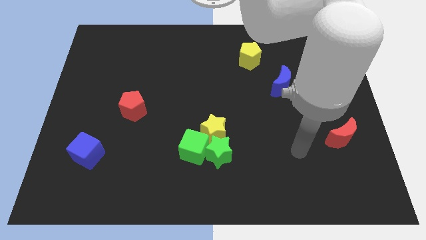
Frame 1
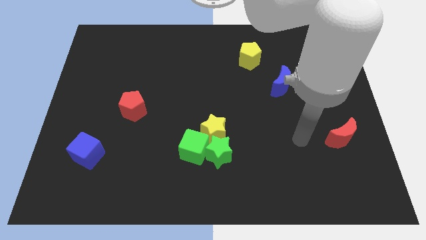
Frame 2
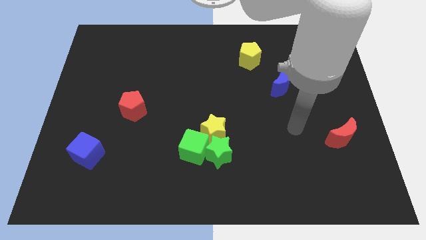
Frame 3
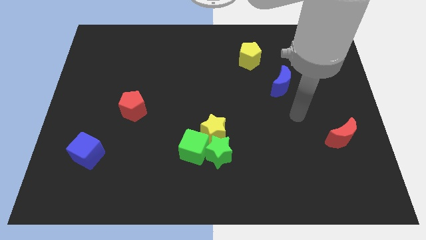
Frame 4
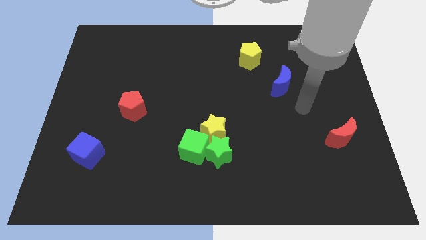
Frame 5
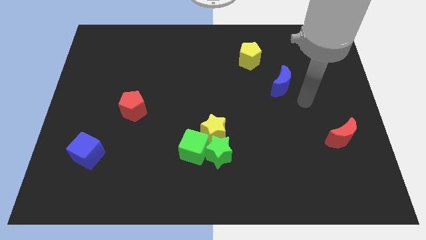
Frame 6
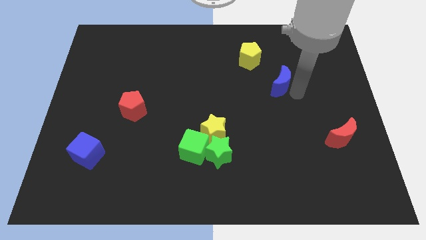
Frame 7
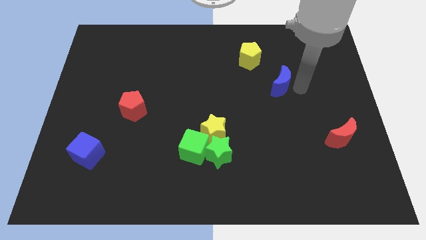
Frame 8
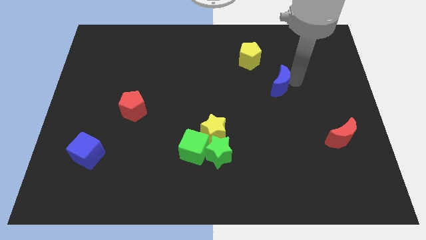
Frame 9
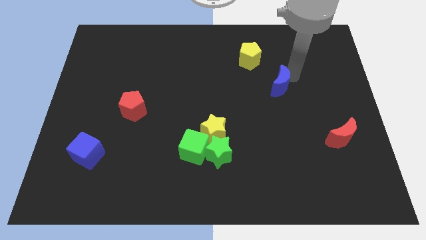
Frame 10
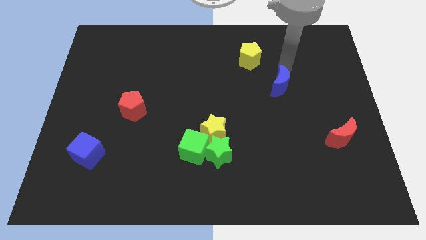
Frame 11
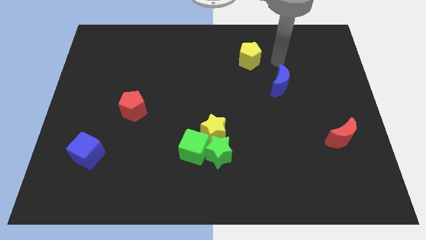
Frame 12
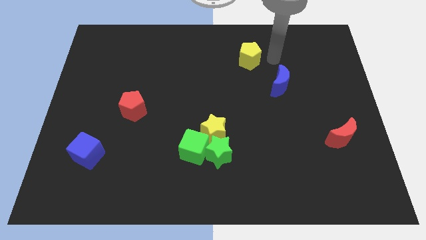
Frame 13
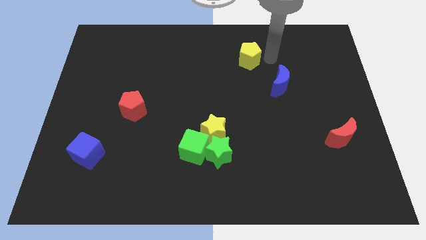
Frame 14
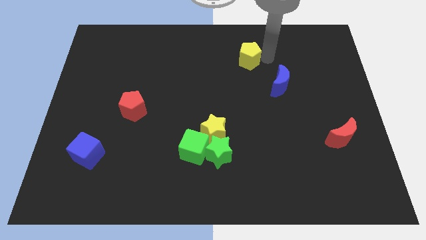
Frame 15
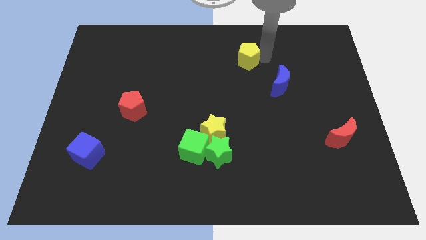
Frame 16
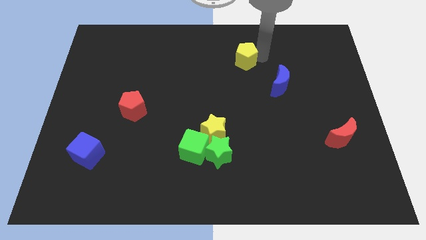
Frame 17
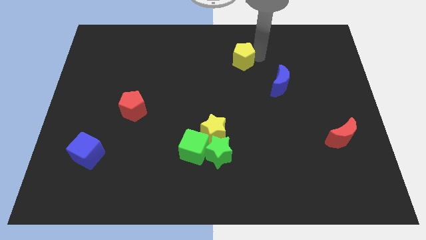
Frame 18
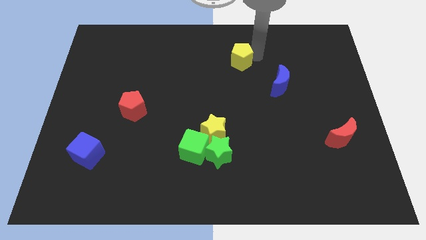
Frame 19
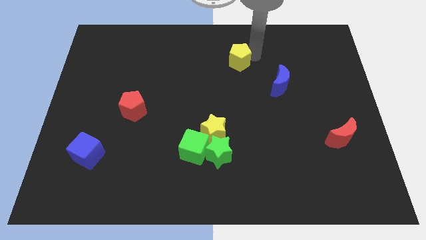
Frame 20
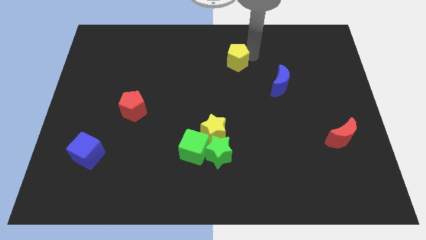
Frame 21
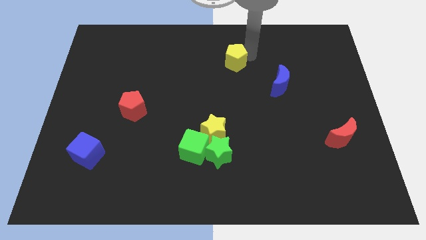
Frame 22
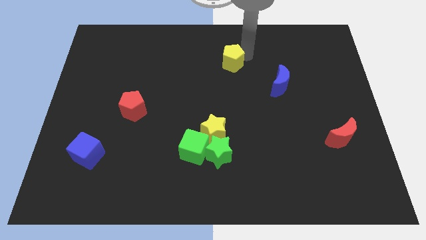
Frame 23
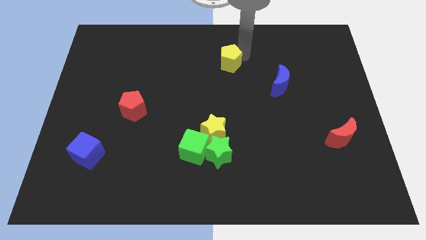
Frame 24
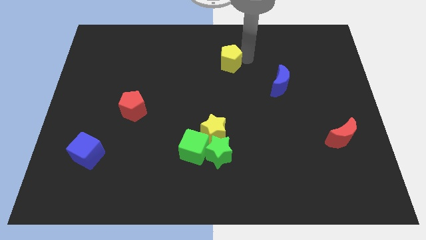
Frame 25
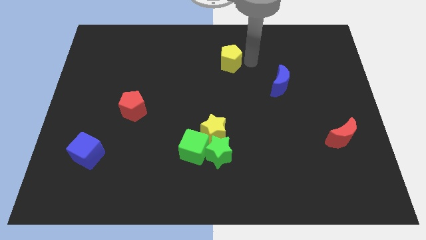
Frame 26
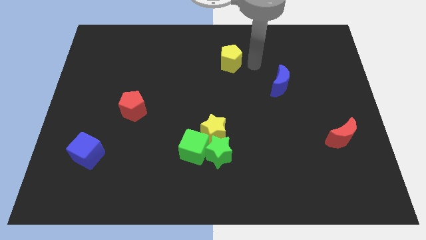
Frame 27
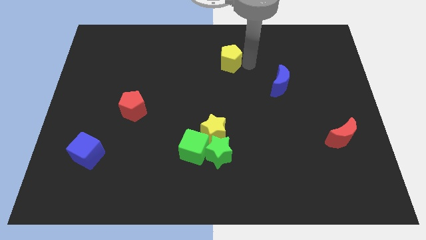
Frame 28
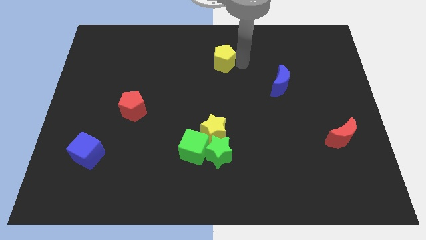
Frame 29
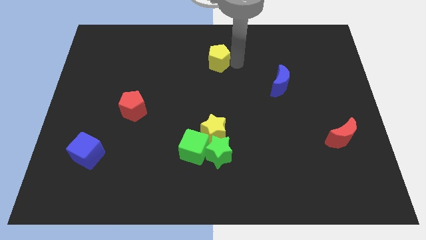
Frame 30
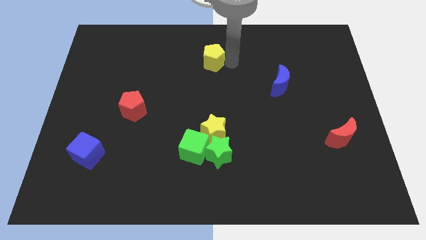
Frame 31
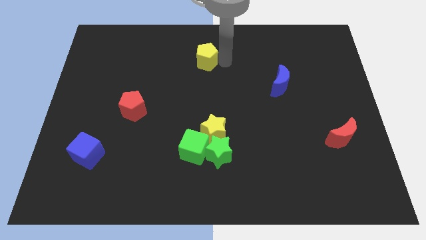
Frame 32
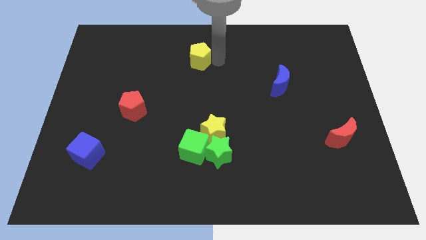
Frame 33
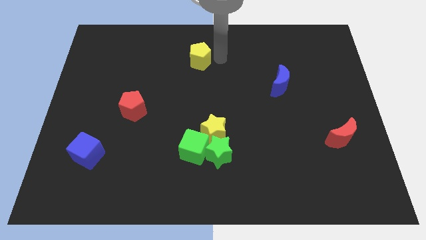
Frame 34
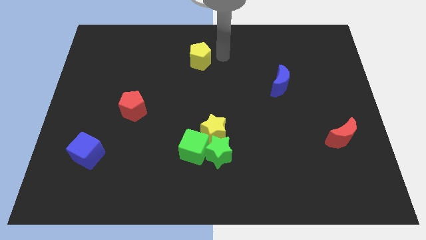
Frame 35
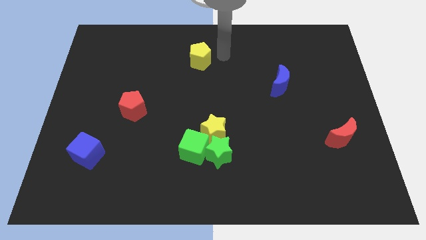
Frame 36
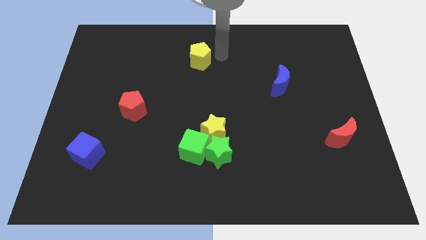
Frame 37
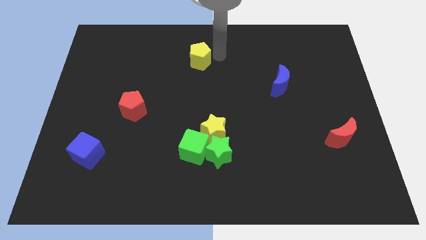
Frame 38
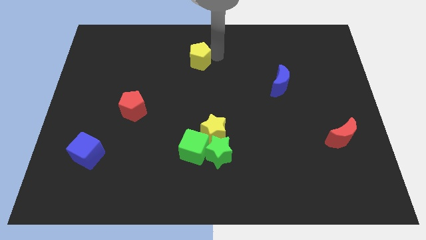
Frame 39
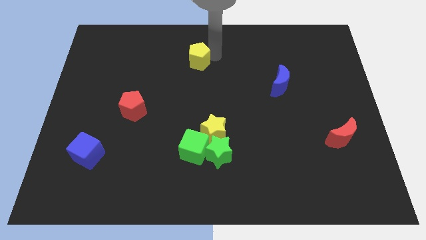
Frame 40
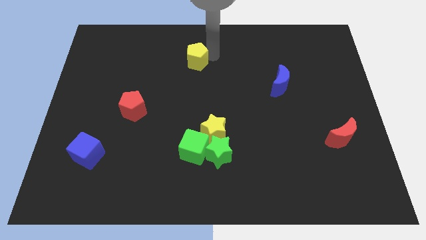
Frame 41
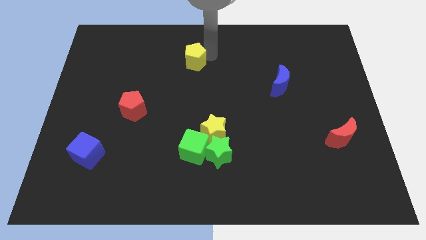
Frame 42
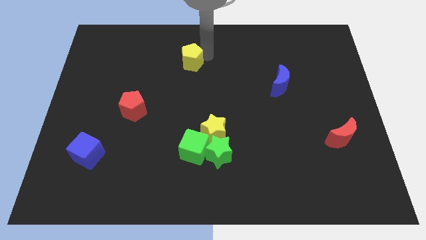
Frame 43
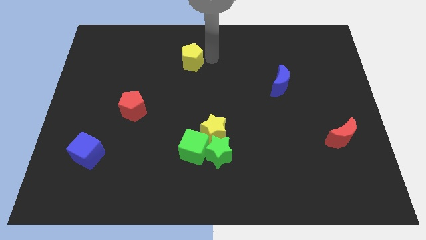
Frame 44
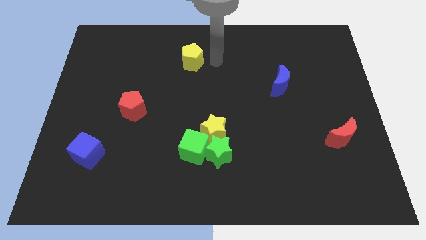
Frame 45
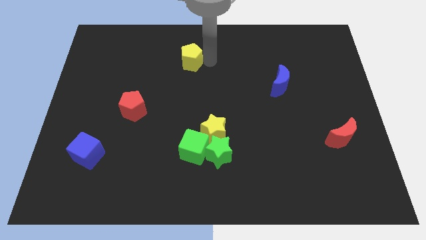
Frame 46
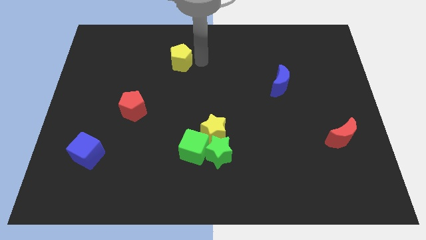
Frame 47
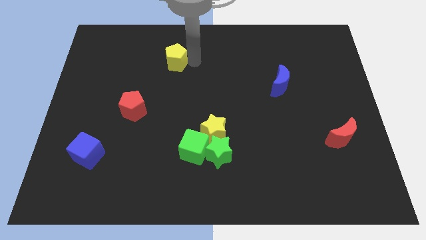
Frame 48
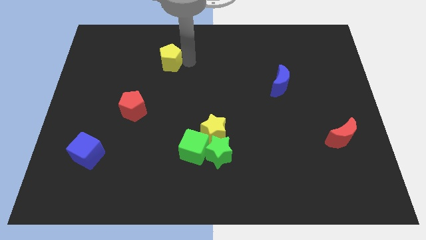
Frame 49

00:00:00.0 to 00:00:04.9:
slide the yellow pentagon left

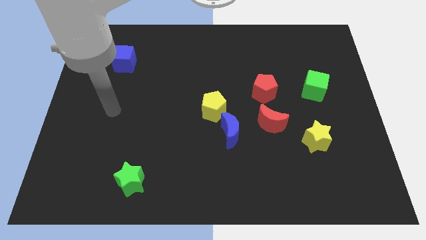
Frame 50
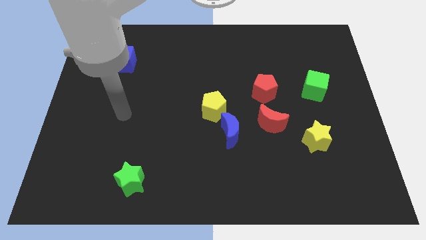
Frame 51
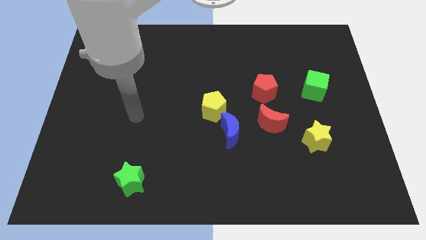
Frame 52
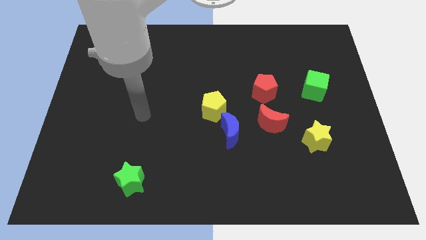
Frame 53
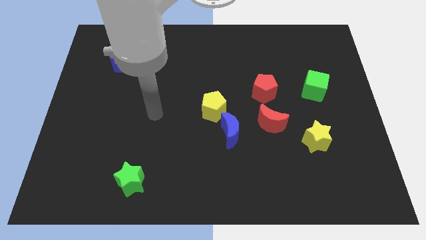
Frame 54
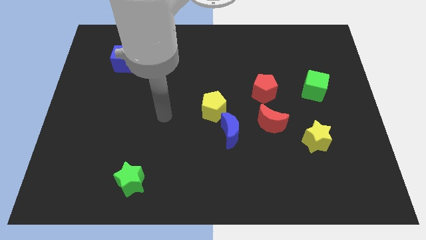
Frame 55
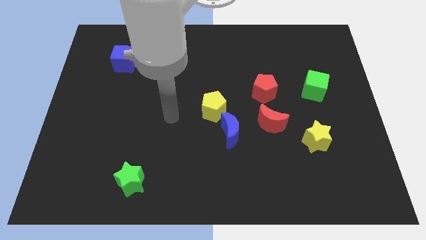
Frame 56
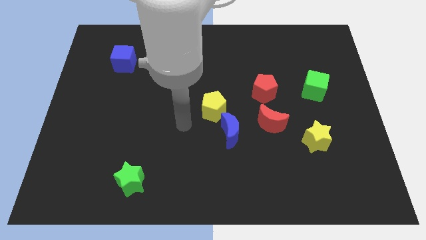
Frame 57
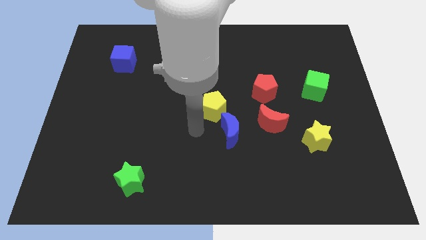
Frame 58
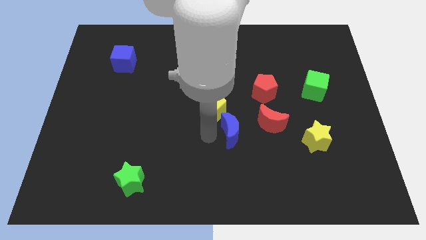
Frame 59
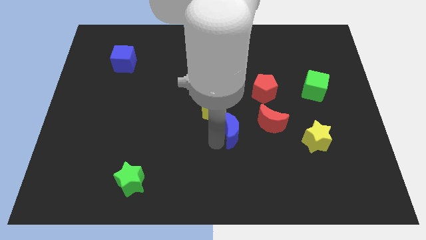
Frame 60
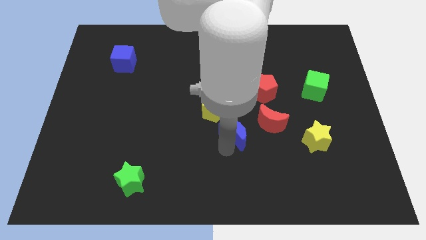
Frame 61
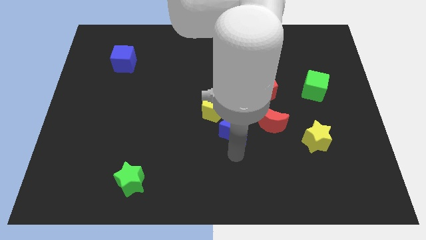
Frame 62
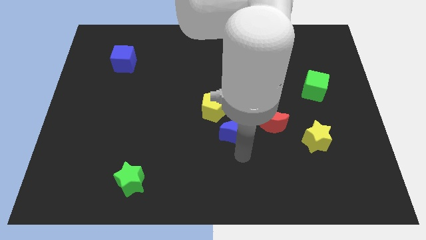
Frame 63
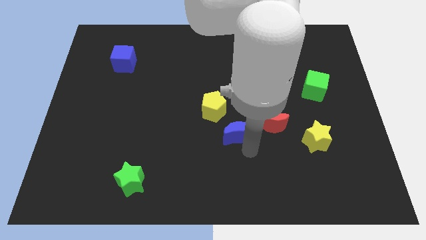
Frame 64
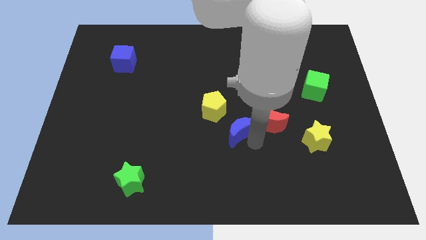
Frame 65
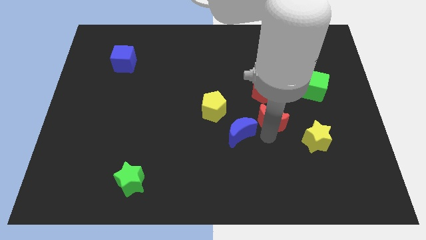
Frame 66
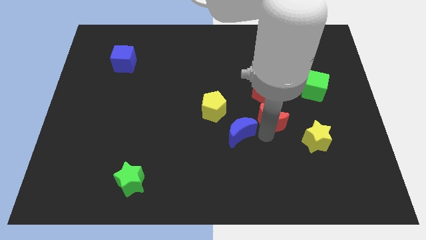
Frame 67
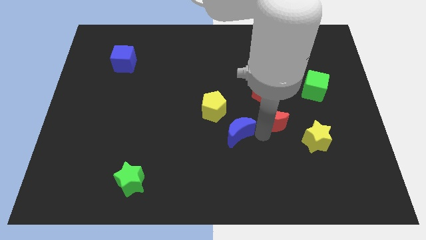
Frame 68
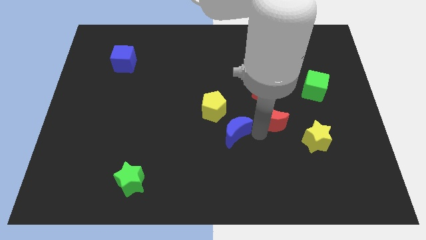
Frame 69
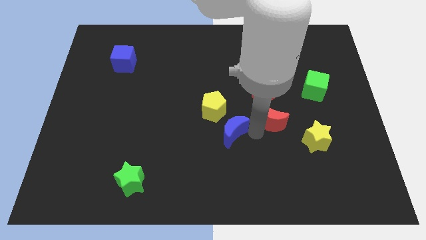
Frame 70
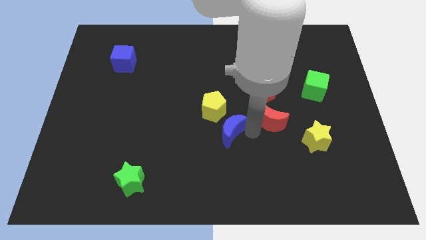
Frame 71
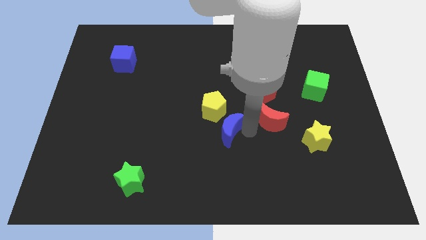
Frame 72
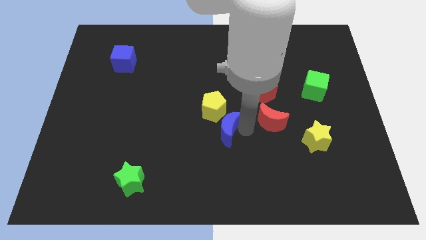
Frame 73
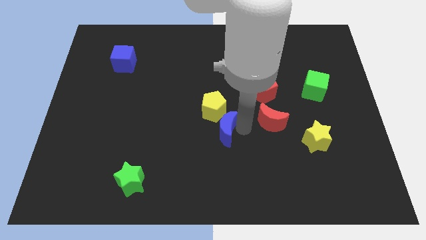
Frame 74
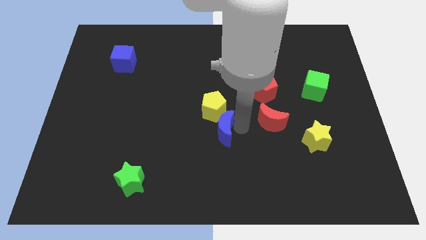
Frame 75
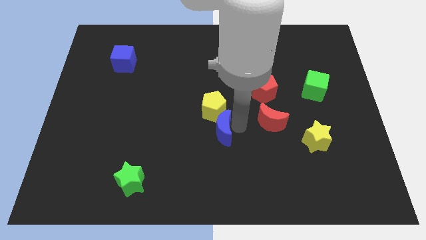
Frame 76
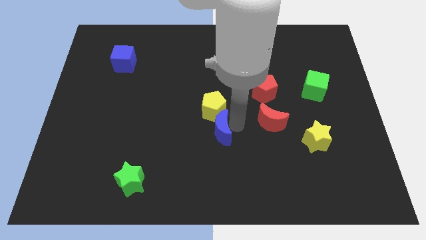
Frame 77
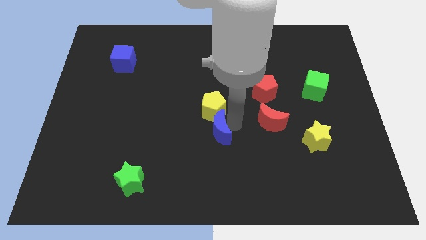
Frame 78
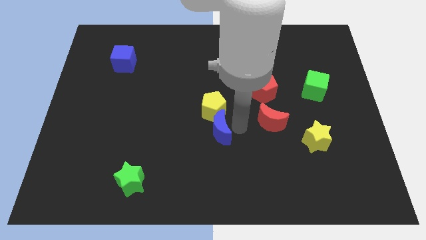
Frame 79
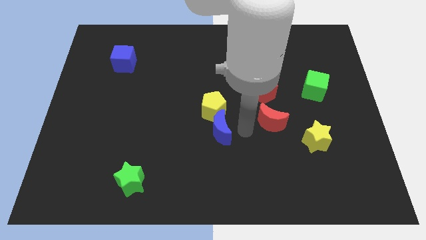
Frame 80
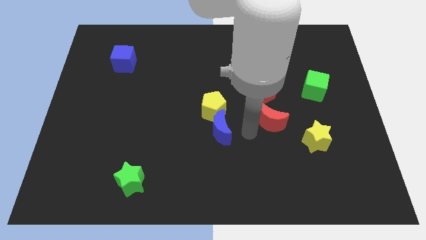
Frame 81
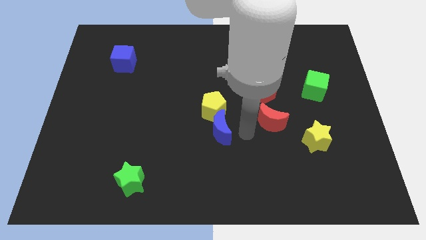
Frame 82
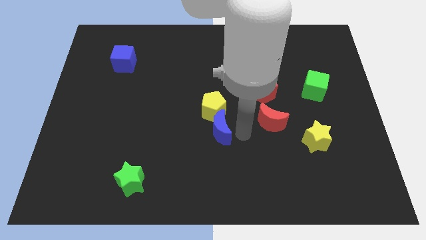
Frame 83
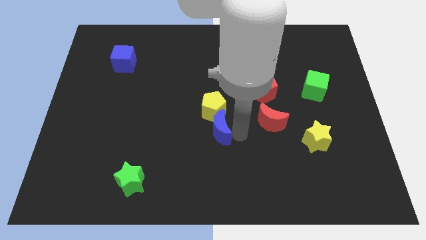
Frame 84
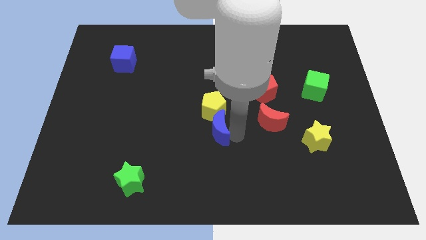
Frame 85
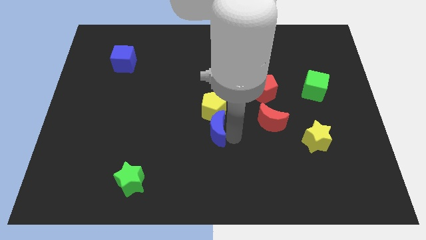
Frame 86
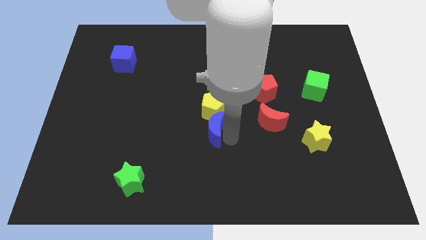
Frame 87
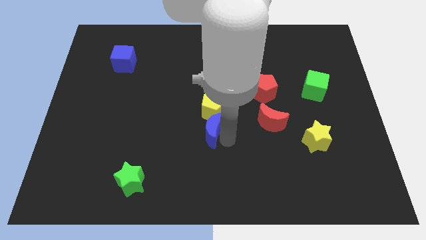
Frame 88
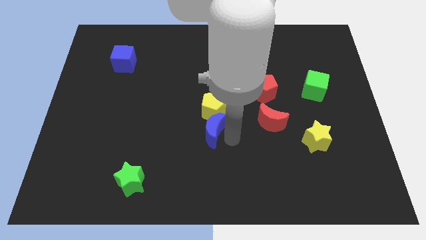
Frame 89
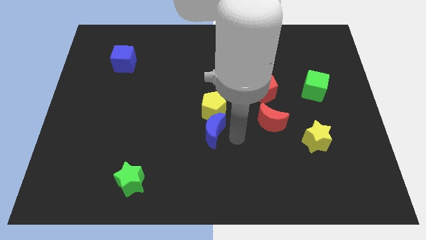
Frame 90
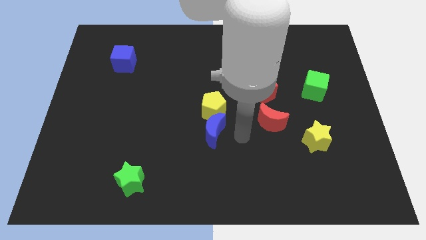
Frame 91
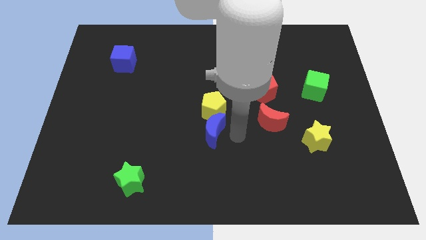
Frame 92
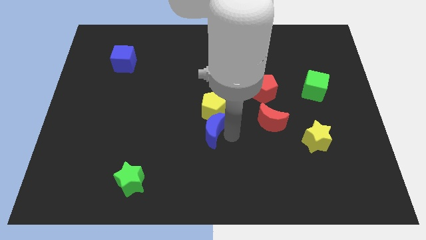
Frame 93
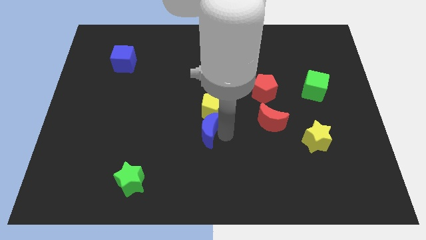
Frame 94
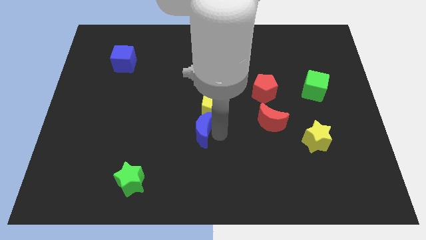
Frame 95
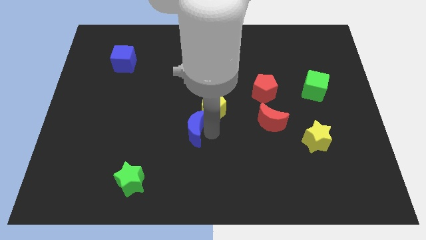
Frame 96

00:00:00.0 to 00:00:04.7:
slightly move the blue moon left
